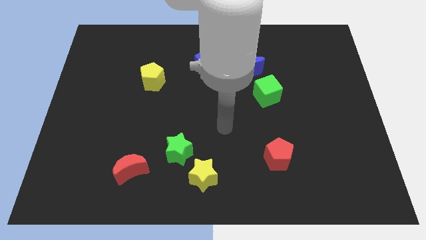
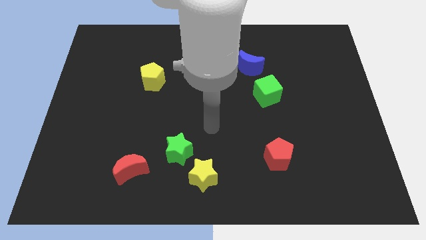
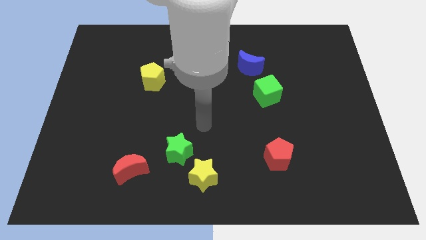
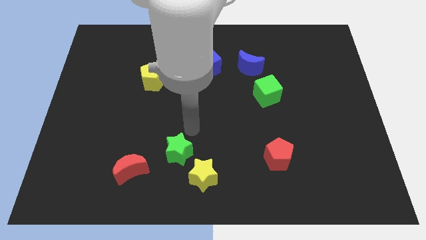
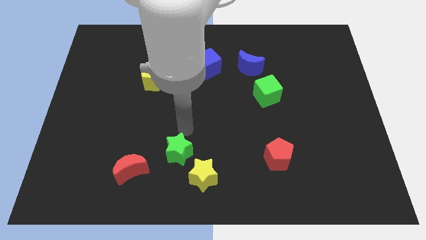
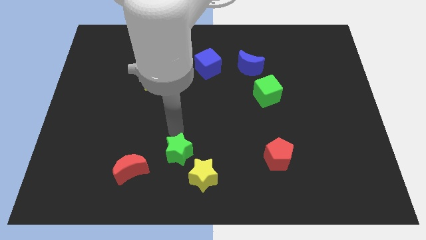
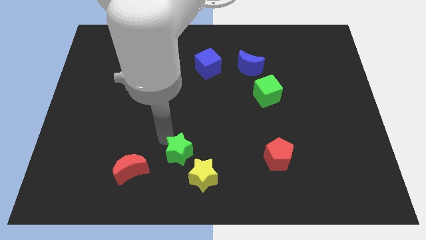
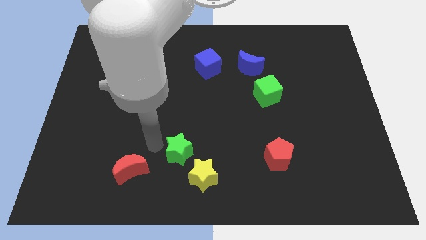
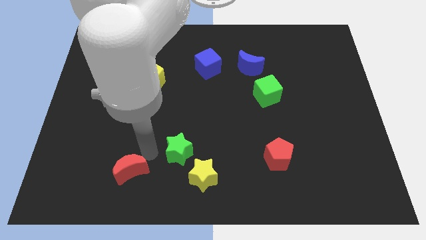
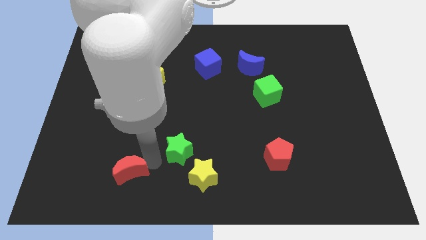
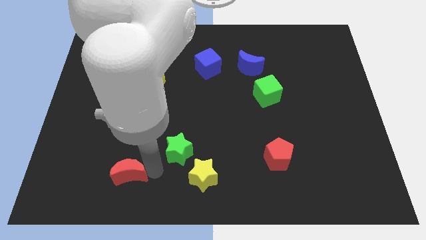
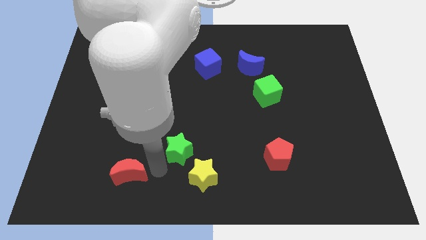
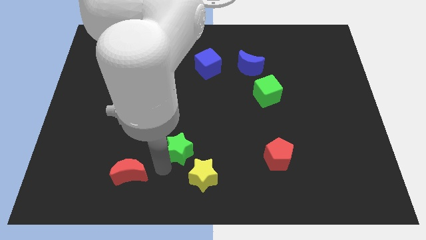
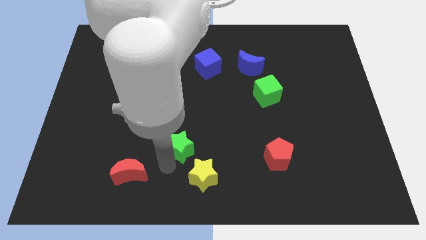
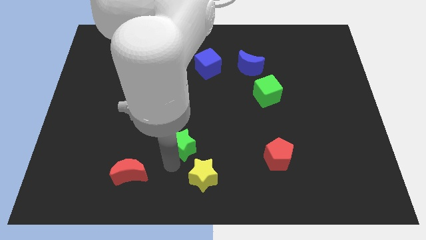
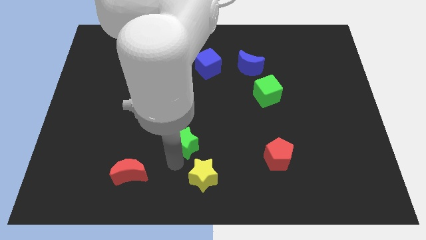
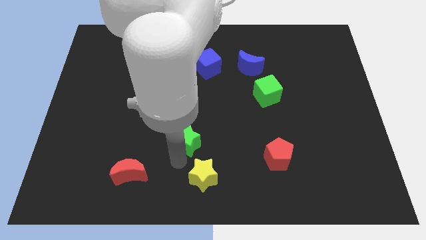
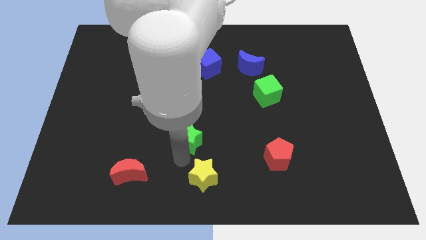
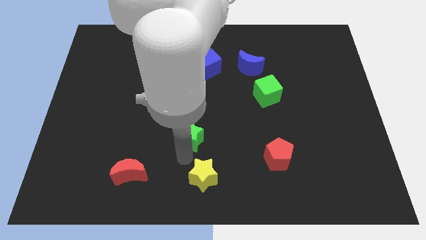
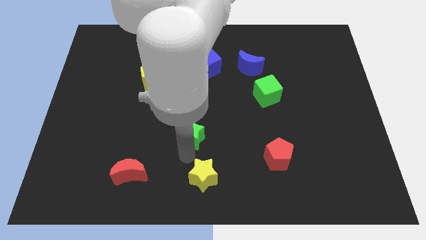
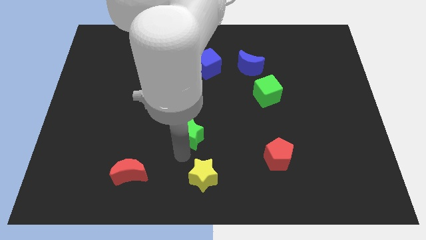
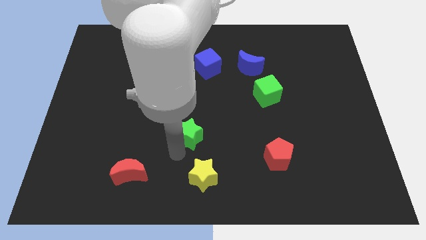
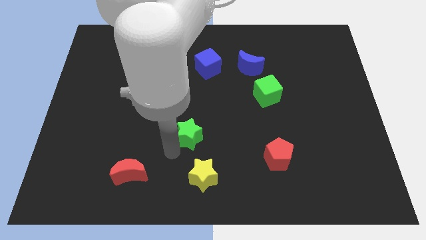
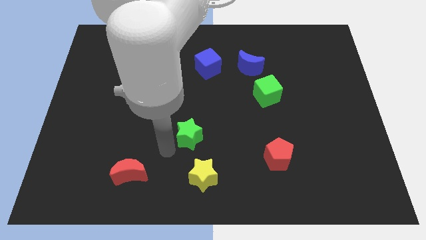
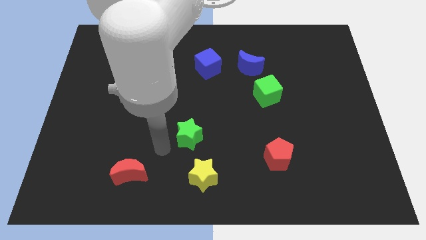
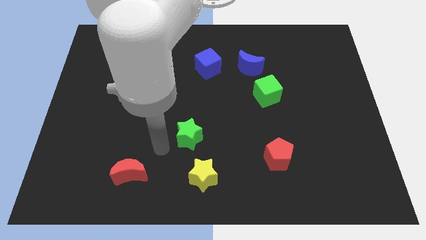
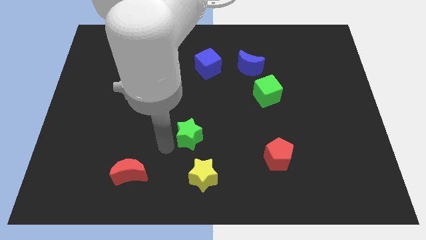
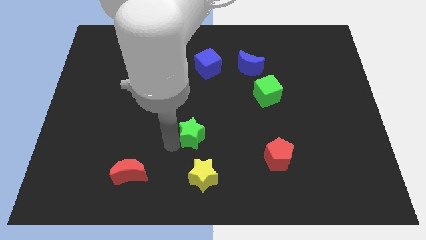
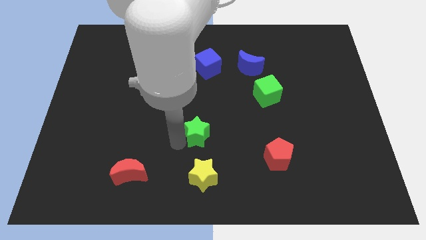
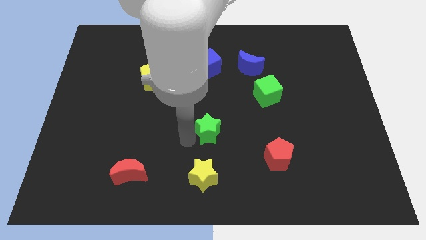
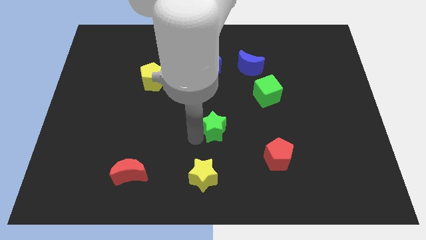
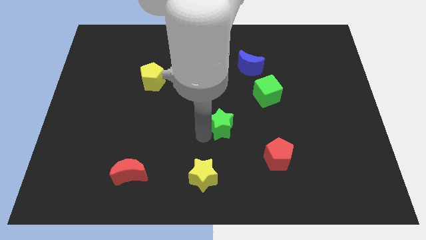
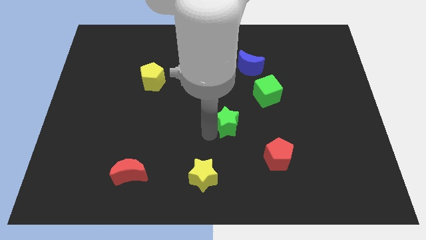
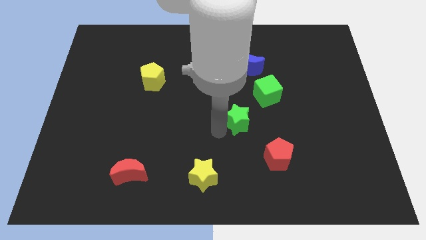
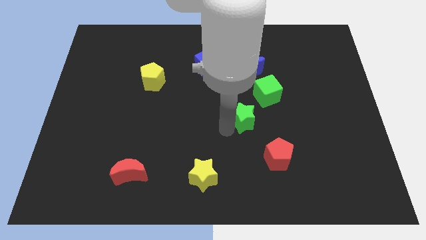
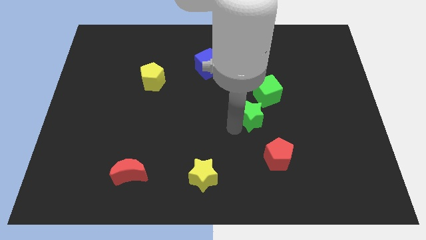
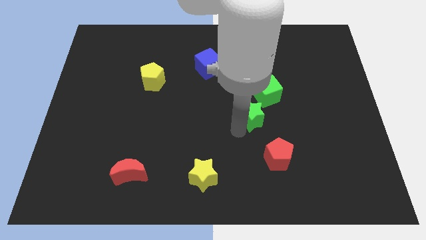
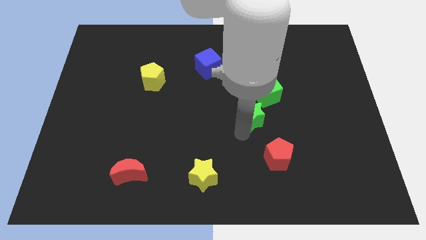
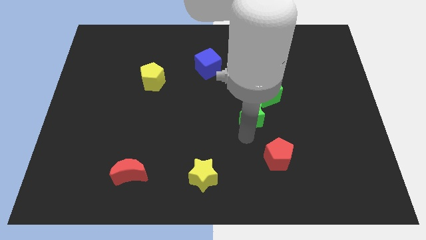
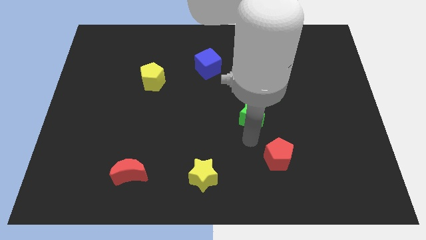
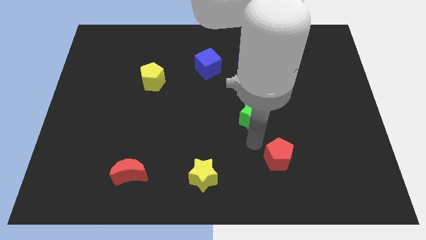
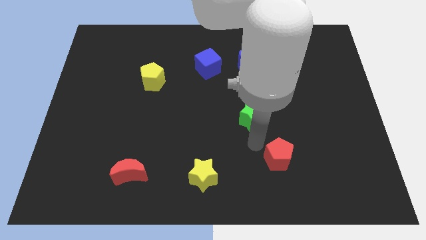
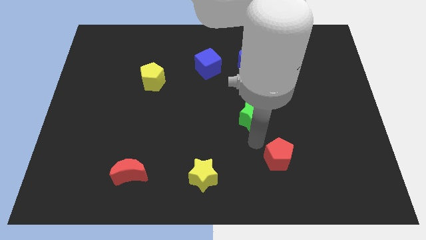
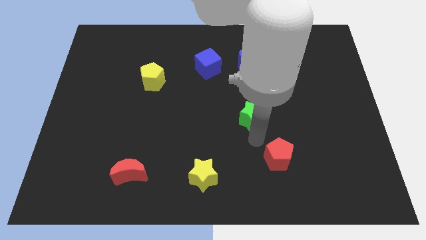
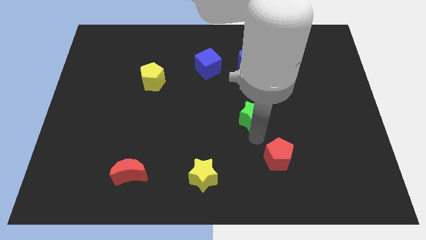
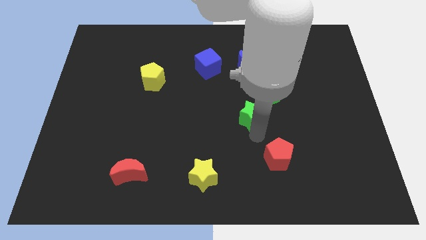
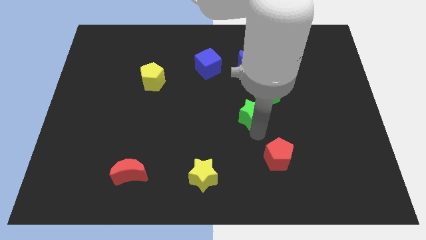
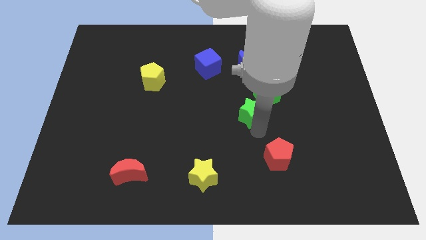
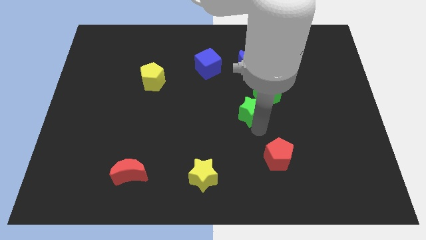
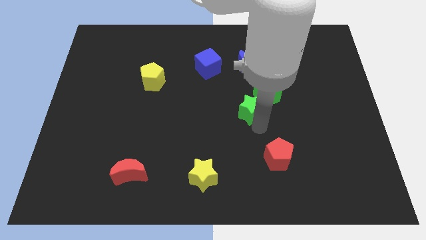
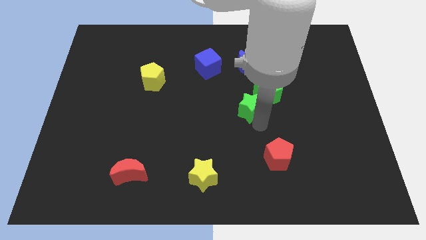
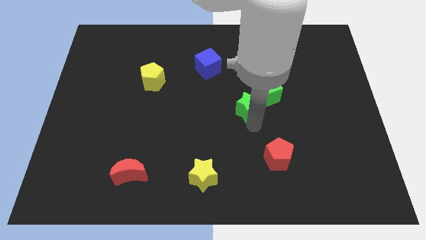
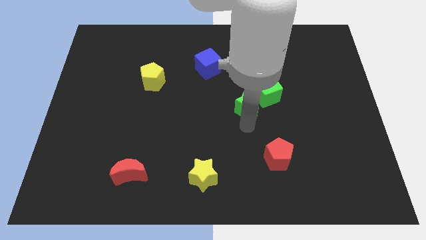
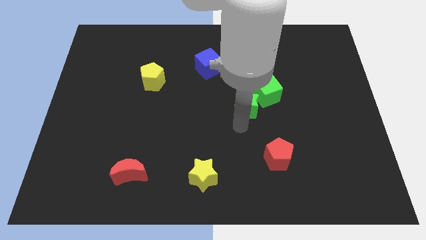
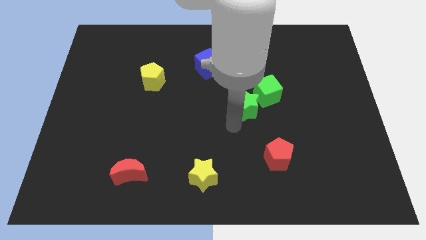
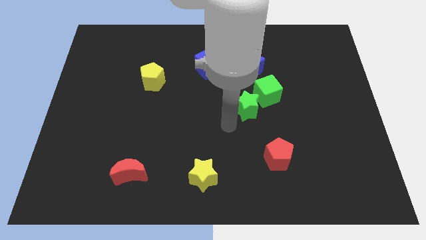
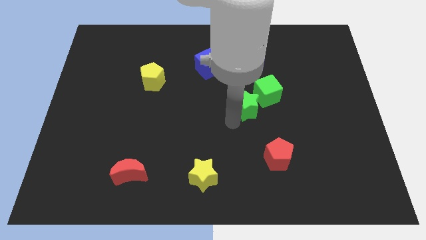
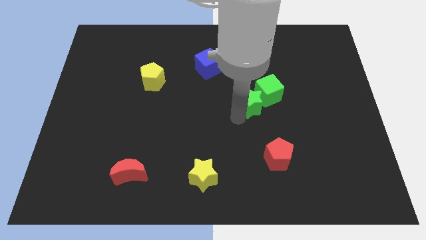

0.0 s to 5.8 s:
move the green star to the green cube

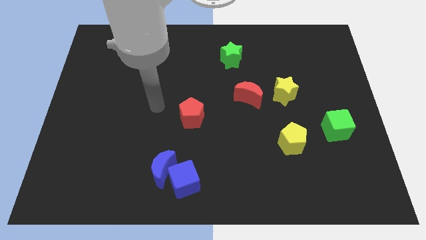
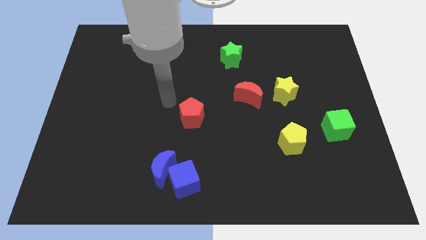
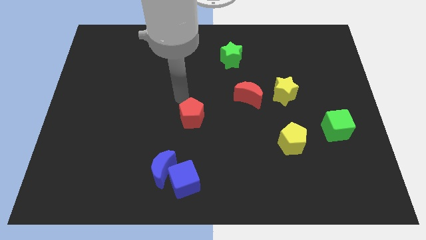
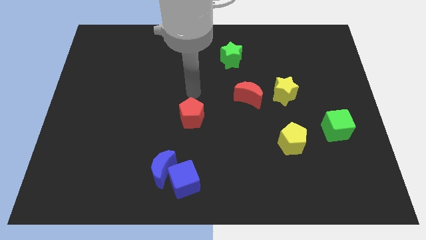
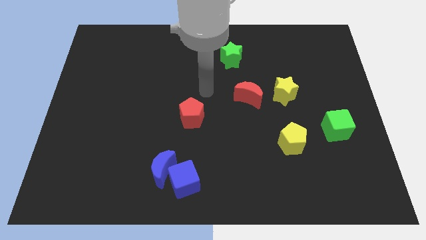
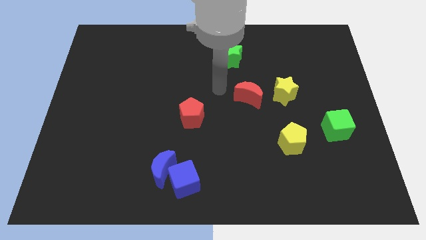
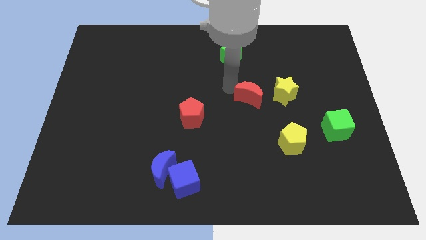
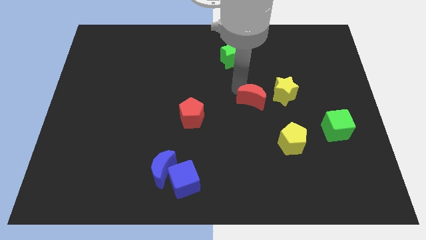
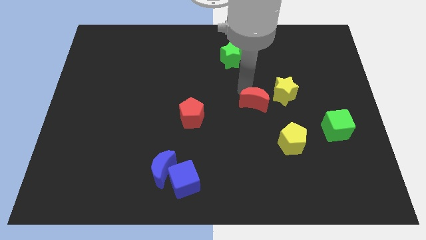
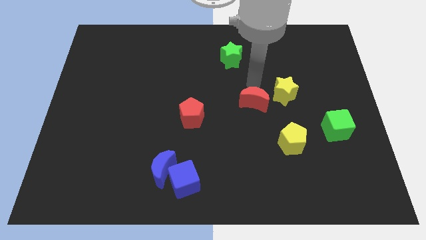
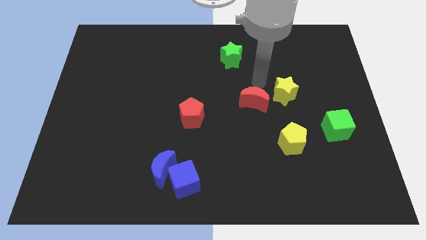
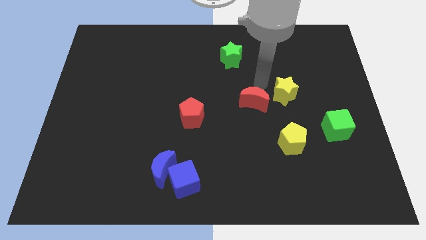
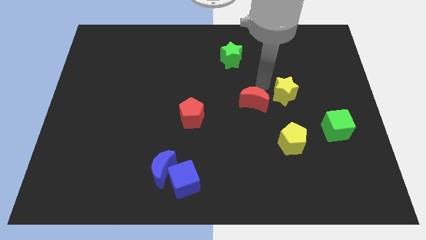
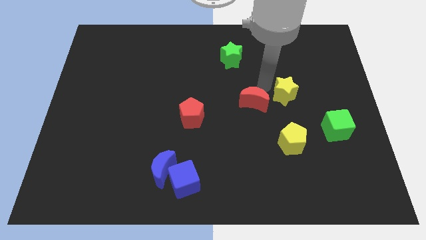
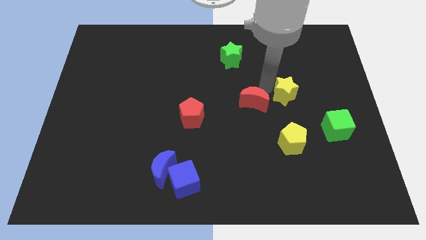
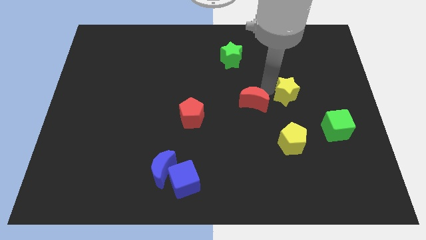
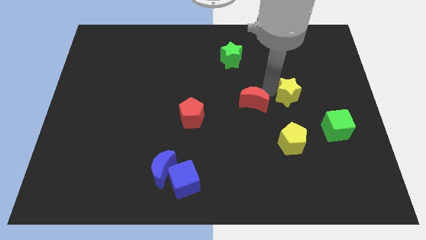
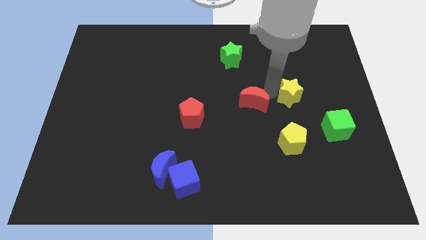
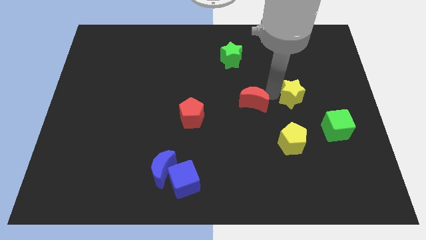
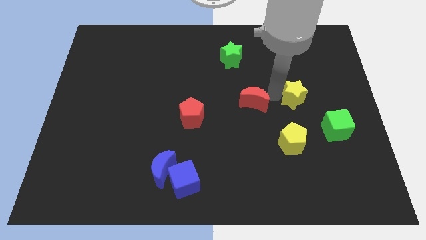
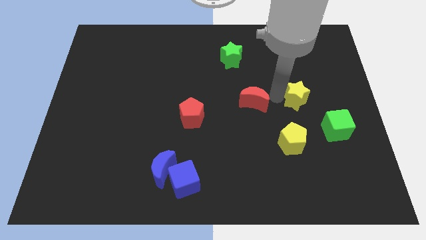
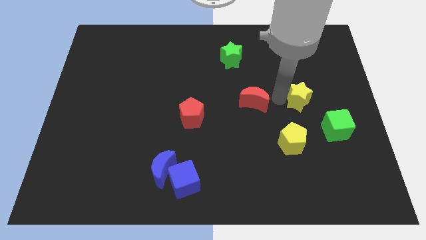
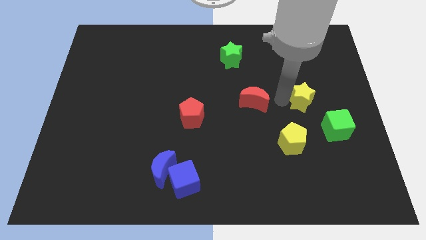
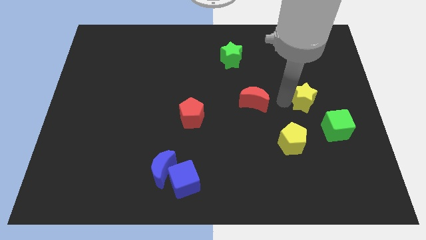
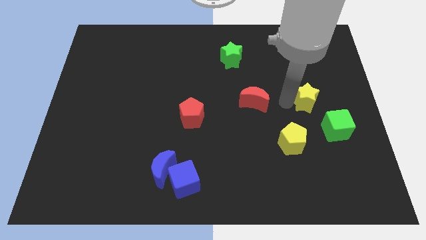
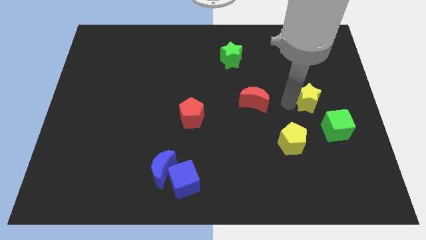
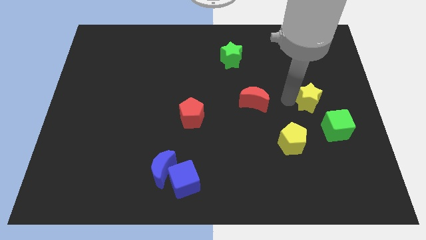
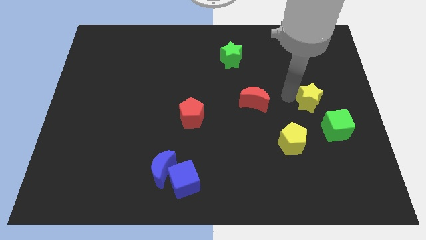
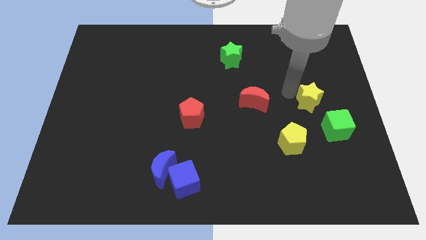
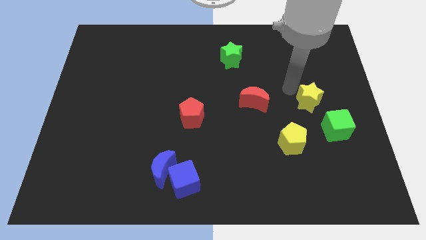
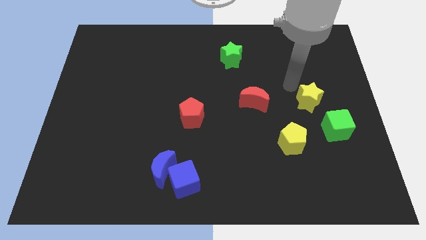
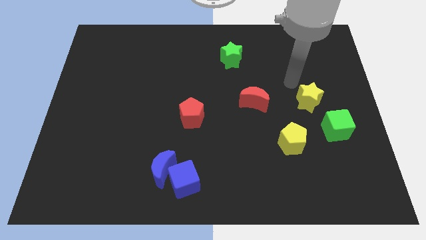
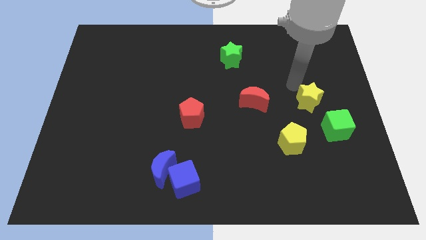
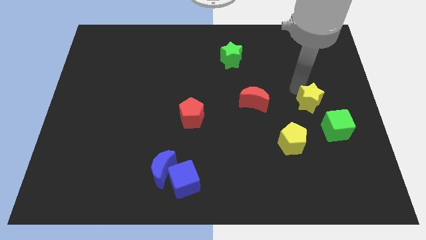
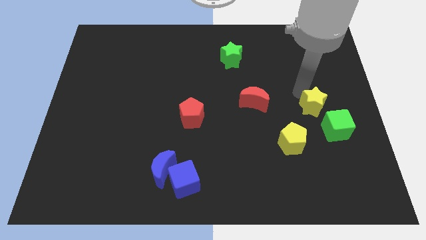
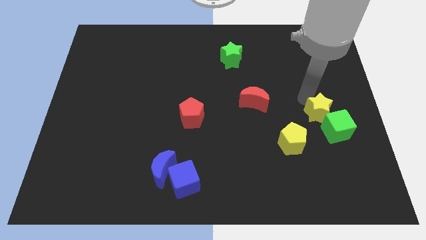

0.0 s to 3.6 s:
slide the yellow star to the green cube
